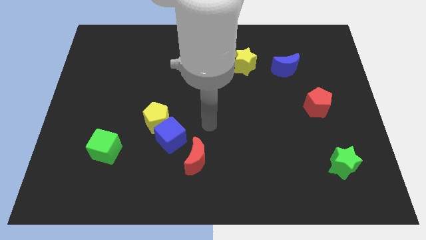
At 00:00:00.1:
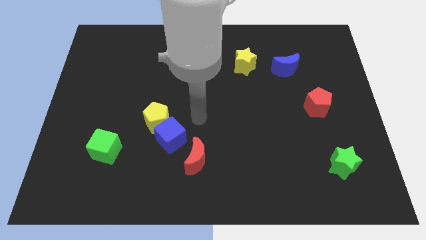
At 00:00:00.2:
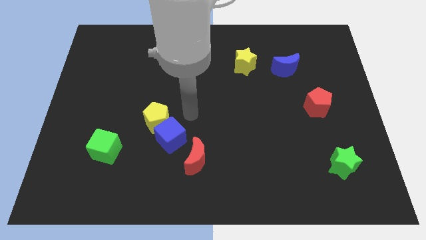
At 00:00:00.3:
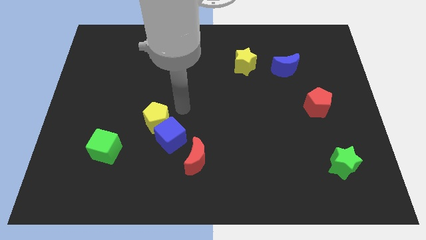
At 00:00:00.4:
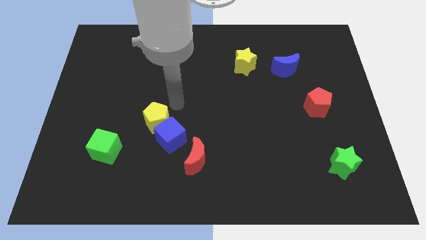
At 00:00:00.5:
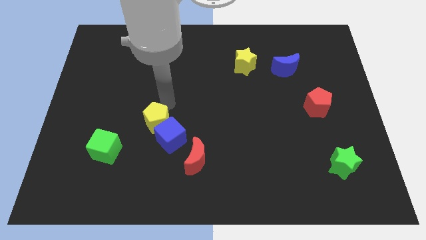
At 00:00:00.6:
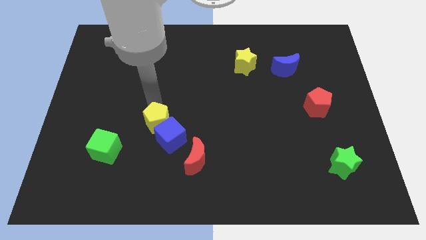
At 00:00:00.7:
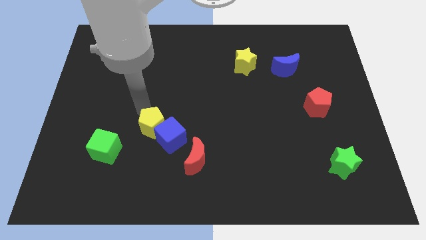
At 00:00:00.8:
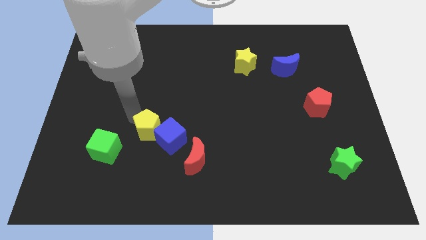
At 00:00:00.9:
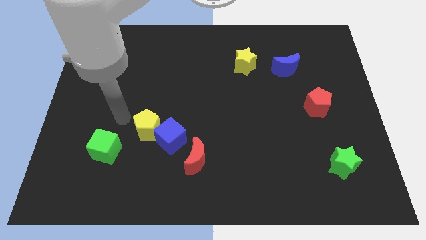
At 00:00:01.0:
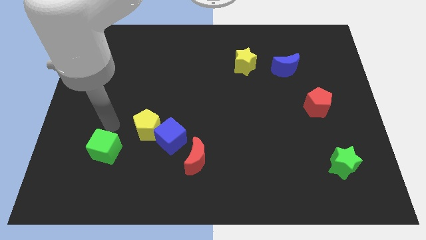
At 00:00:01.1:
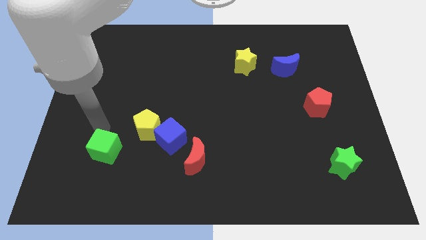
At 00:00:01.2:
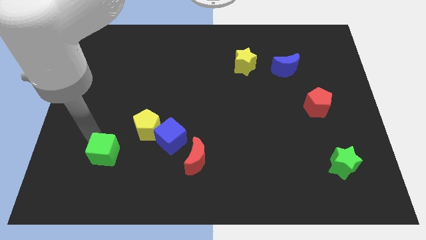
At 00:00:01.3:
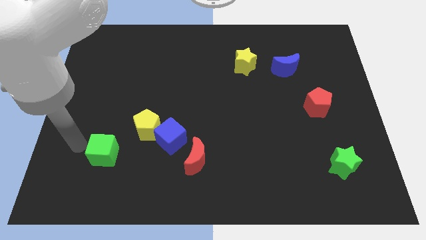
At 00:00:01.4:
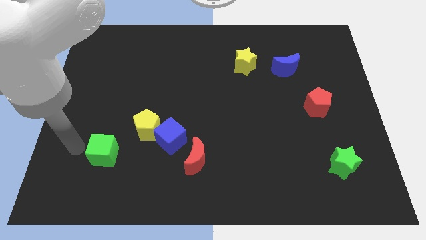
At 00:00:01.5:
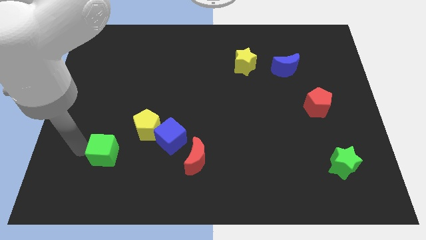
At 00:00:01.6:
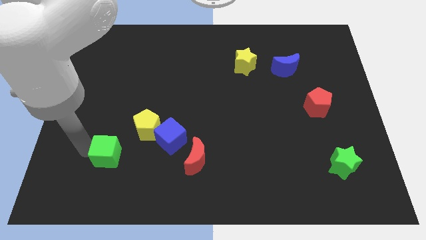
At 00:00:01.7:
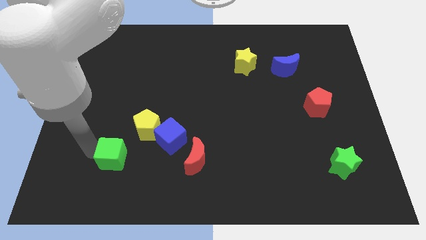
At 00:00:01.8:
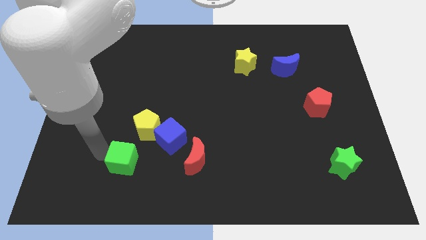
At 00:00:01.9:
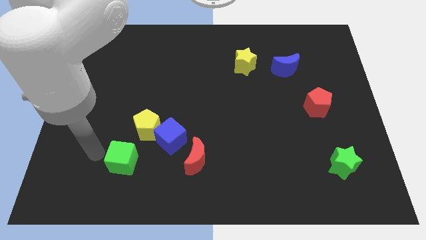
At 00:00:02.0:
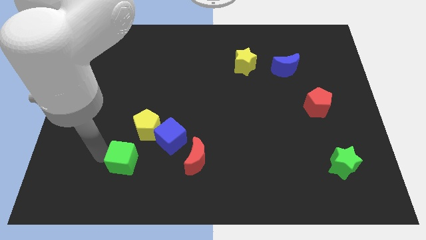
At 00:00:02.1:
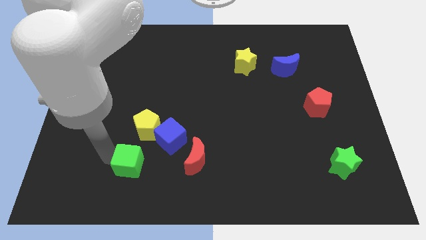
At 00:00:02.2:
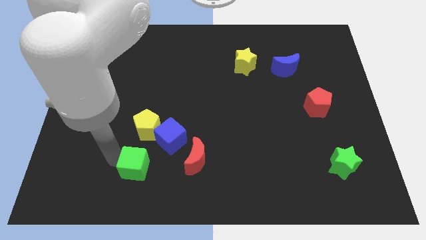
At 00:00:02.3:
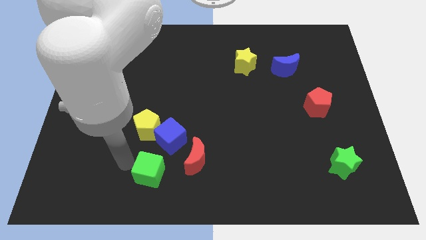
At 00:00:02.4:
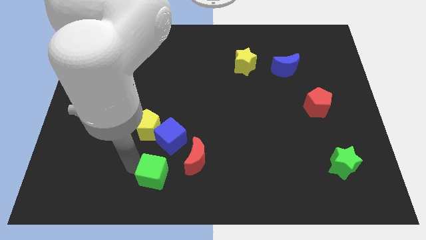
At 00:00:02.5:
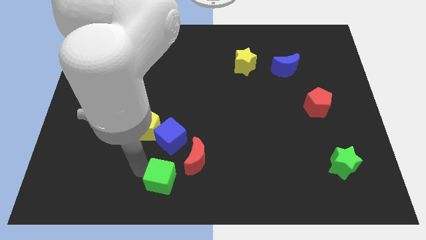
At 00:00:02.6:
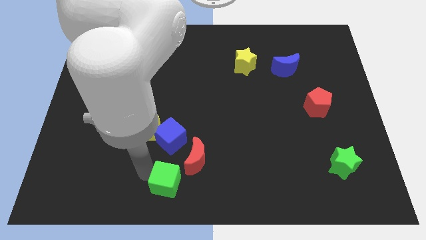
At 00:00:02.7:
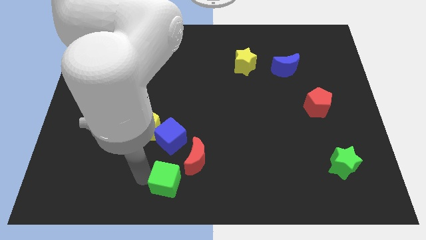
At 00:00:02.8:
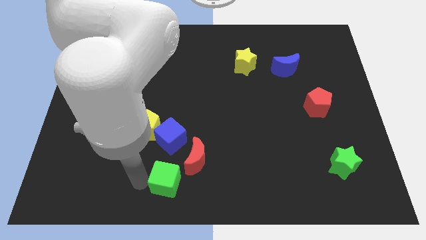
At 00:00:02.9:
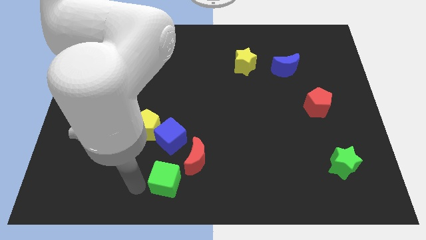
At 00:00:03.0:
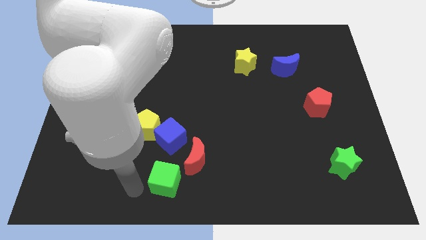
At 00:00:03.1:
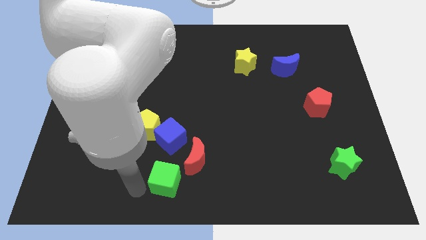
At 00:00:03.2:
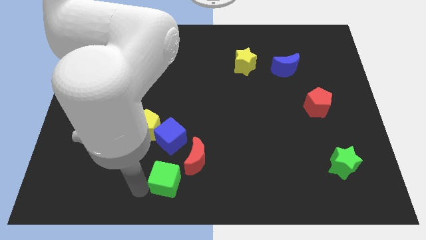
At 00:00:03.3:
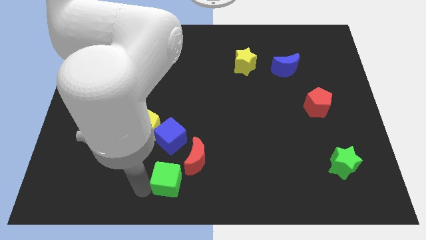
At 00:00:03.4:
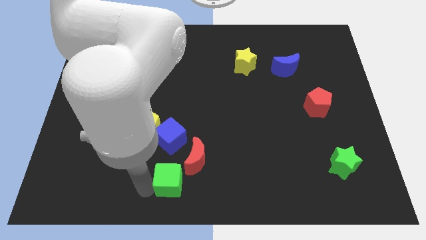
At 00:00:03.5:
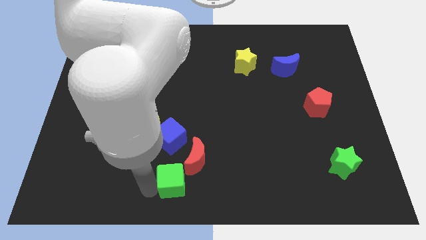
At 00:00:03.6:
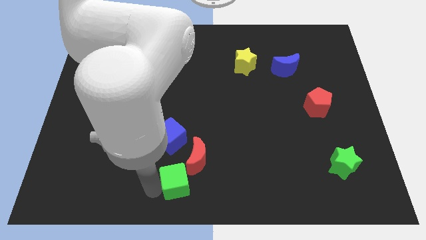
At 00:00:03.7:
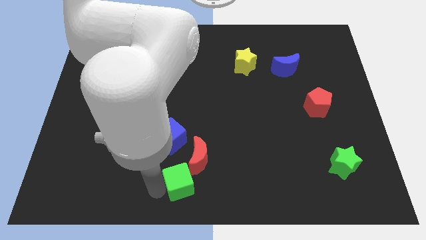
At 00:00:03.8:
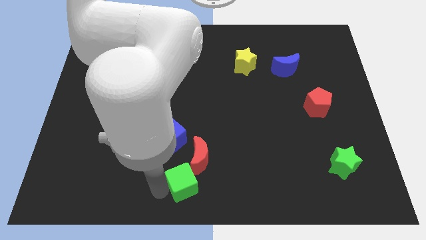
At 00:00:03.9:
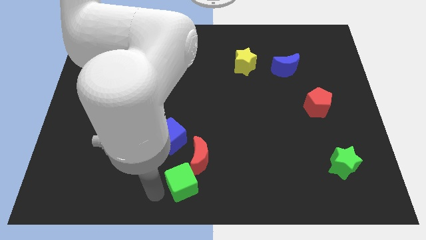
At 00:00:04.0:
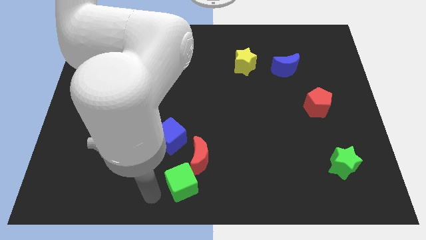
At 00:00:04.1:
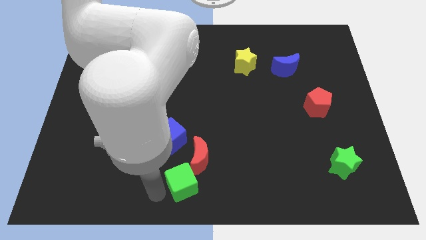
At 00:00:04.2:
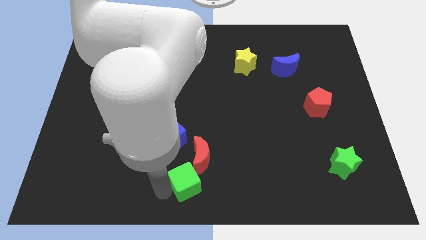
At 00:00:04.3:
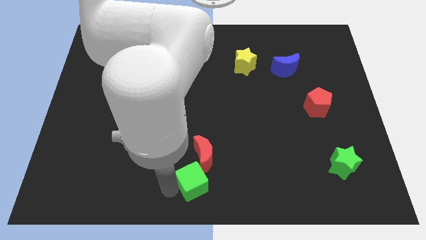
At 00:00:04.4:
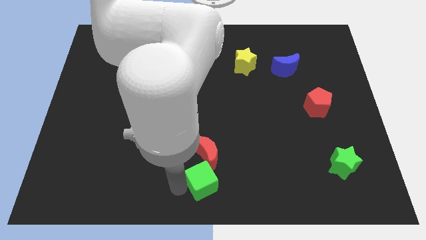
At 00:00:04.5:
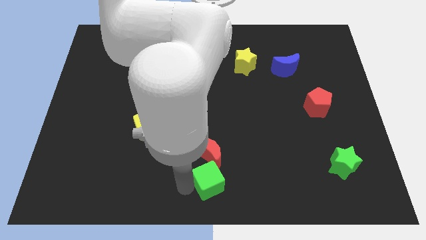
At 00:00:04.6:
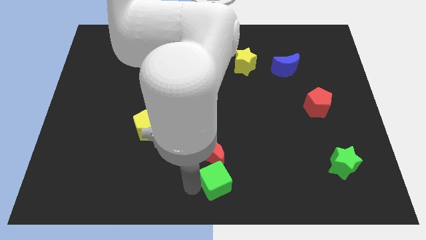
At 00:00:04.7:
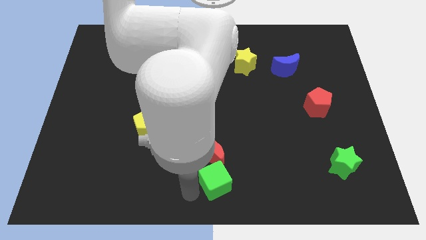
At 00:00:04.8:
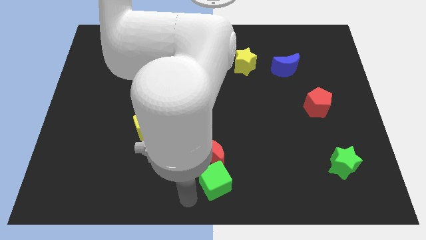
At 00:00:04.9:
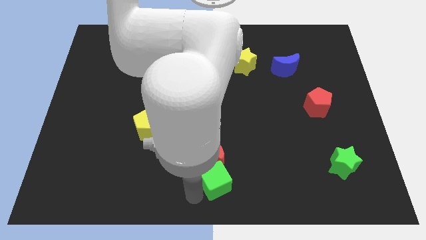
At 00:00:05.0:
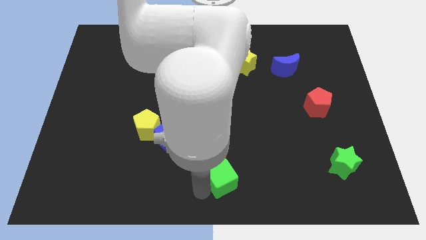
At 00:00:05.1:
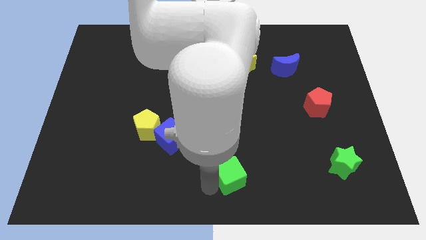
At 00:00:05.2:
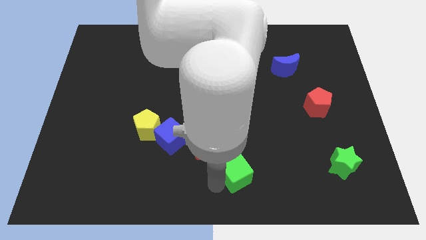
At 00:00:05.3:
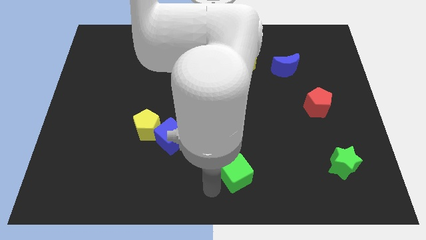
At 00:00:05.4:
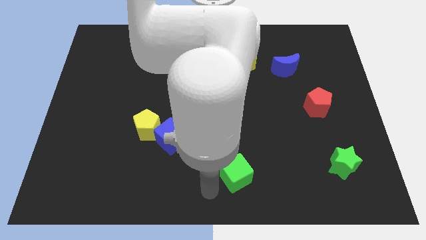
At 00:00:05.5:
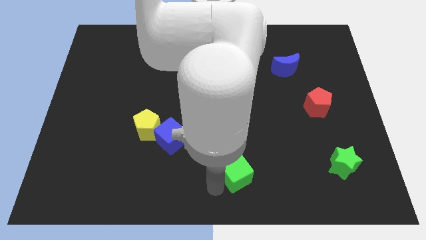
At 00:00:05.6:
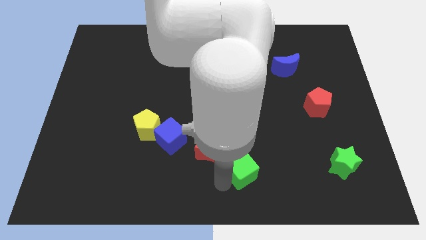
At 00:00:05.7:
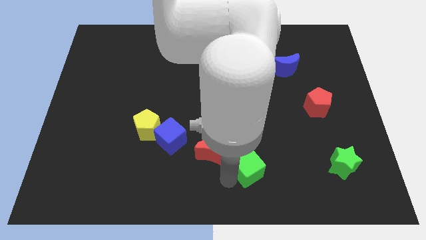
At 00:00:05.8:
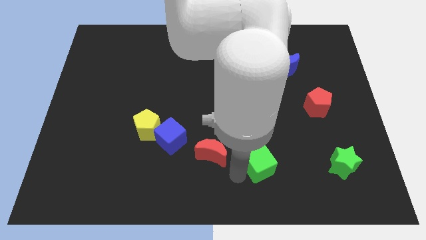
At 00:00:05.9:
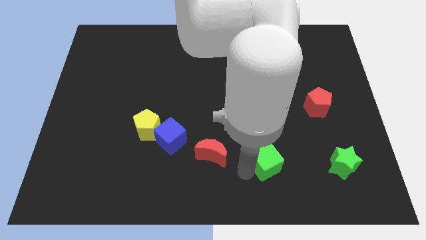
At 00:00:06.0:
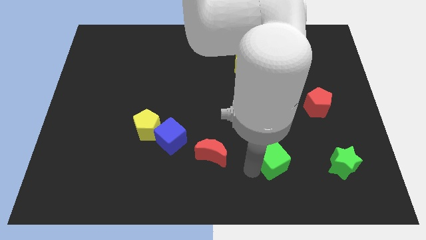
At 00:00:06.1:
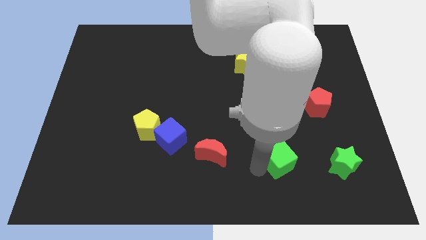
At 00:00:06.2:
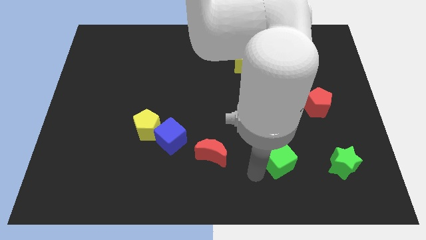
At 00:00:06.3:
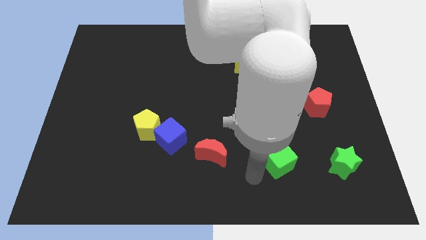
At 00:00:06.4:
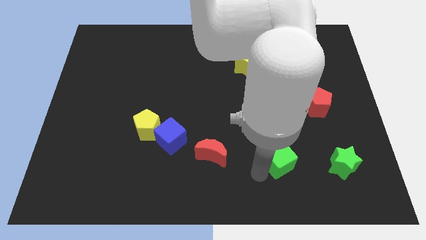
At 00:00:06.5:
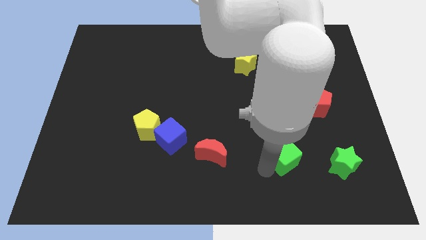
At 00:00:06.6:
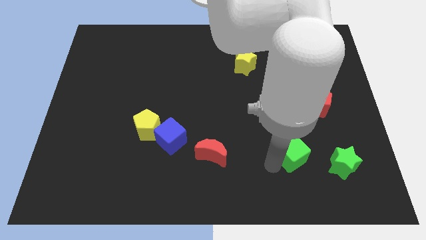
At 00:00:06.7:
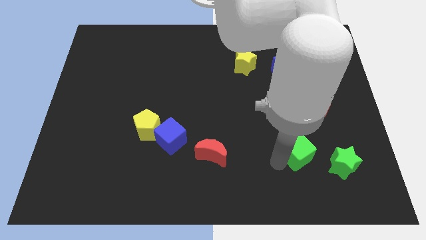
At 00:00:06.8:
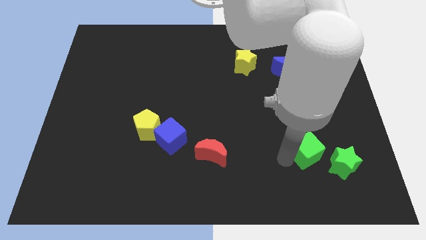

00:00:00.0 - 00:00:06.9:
push the green cube to the bottom of the red pentagon
